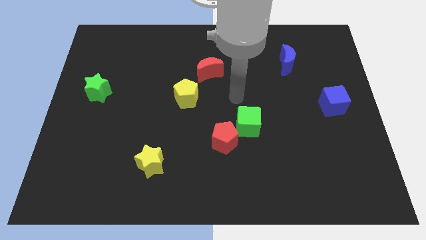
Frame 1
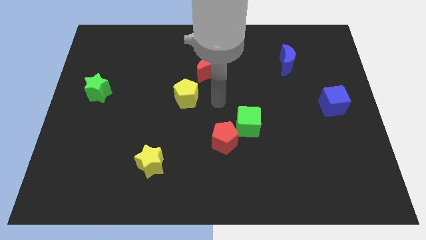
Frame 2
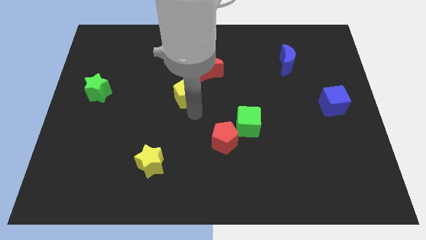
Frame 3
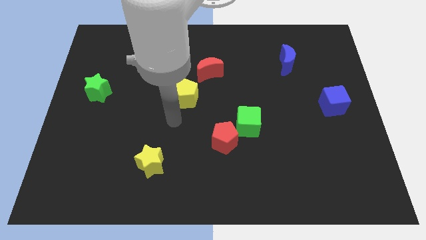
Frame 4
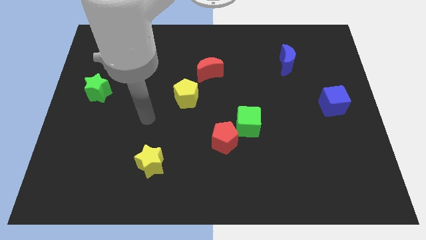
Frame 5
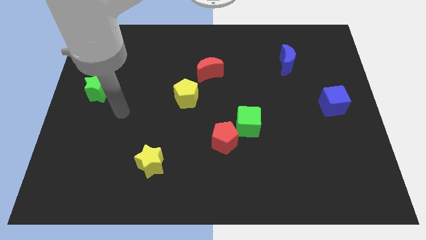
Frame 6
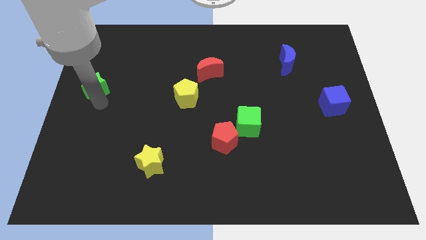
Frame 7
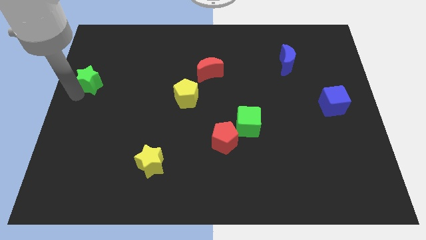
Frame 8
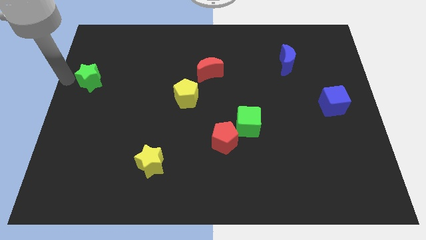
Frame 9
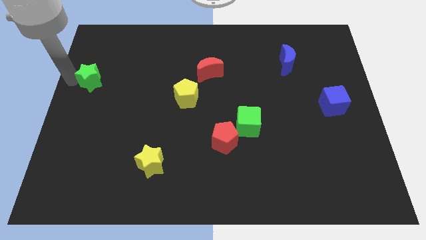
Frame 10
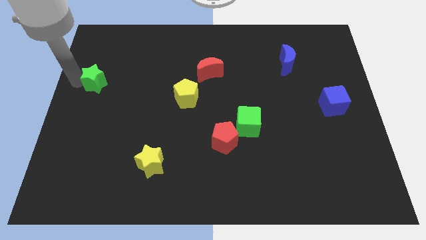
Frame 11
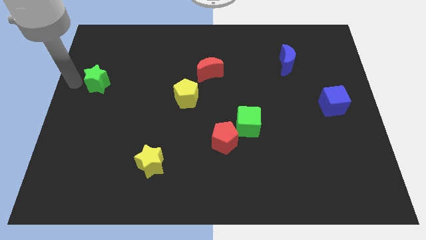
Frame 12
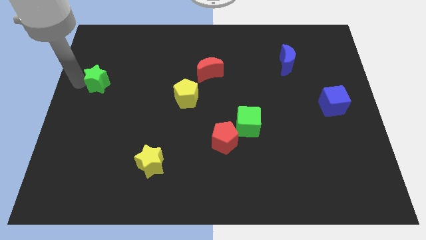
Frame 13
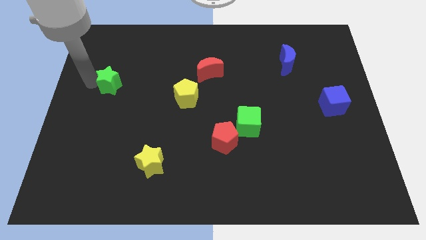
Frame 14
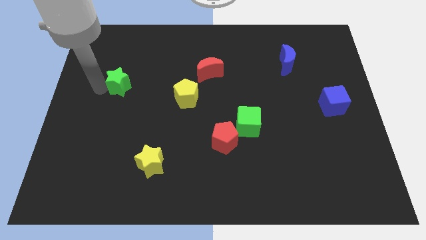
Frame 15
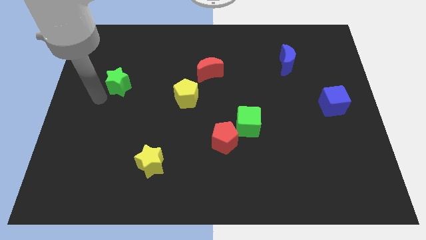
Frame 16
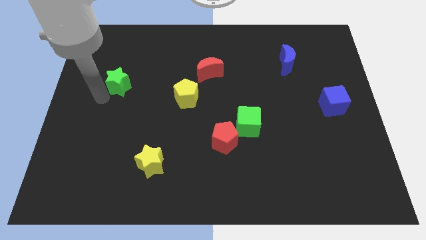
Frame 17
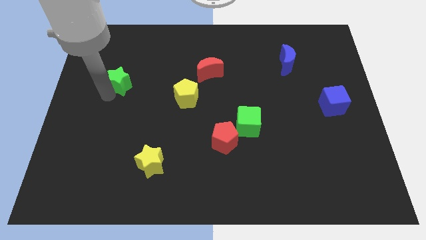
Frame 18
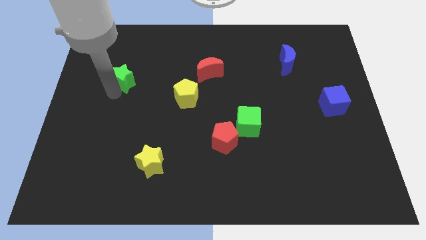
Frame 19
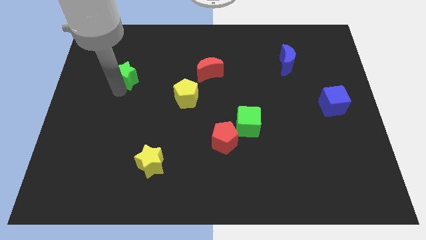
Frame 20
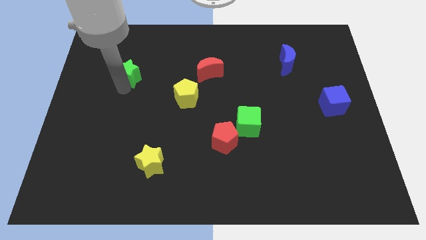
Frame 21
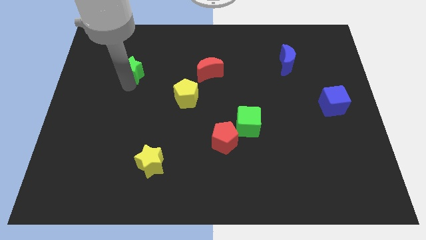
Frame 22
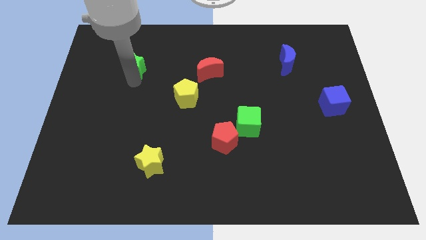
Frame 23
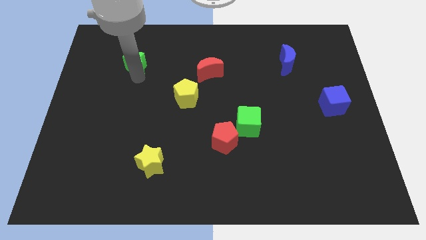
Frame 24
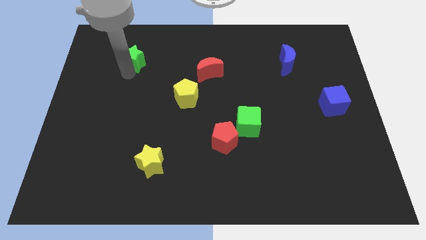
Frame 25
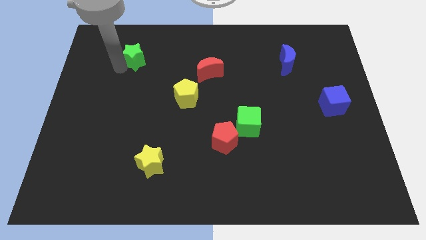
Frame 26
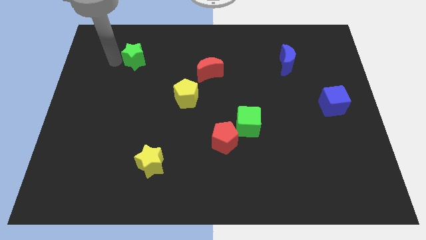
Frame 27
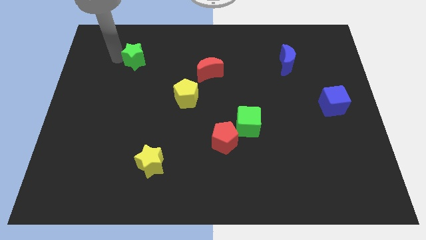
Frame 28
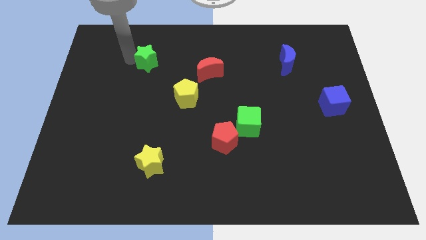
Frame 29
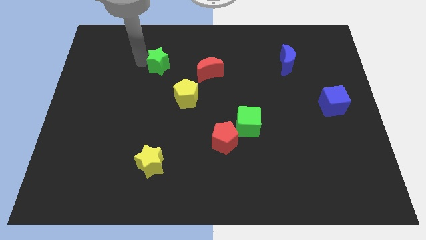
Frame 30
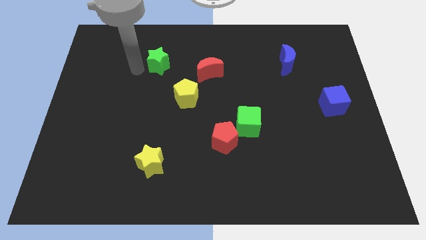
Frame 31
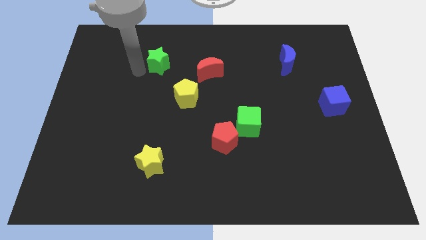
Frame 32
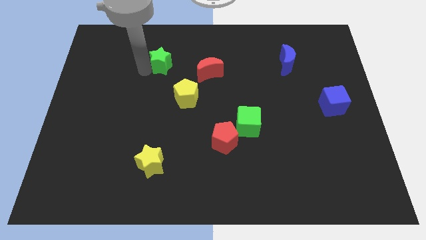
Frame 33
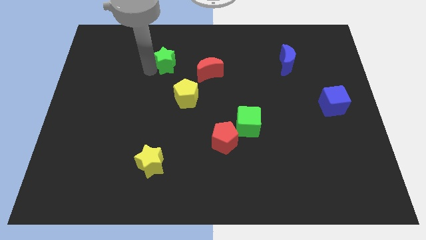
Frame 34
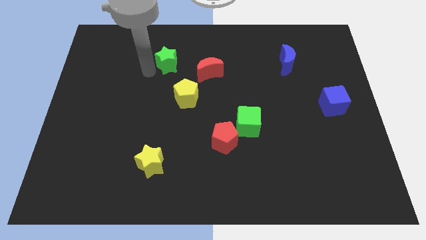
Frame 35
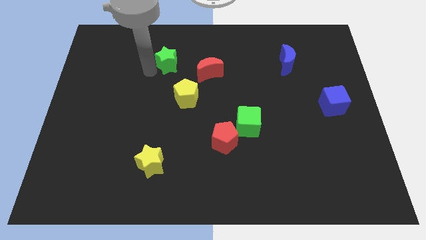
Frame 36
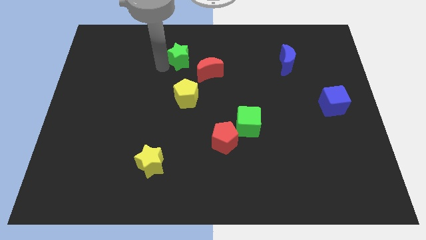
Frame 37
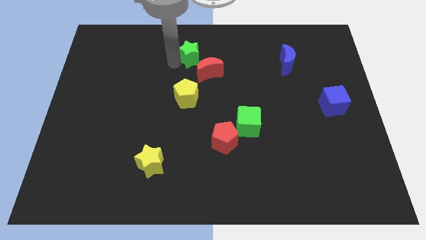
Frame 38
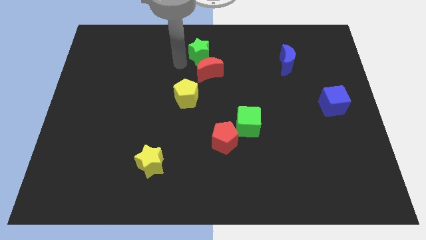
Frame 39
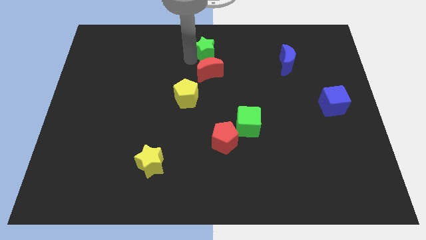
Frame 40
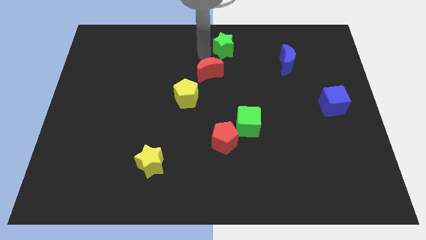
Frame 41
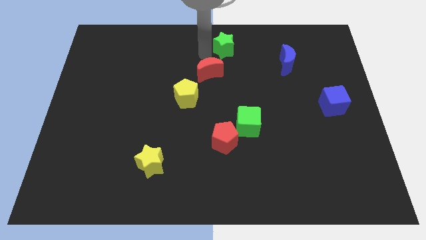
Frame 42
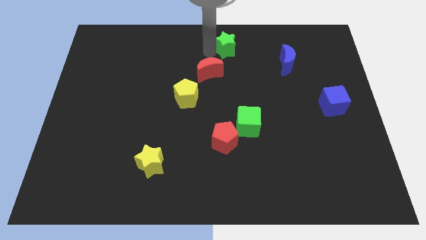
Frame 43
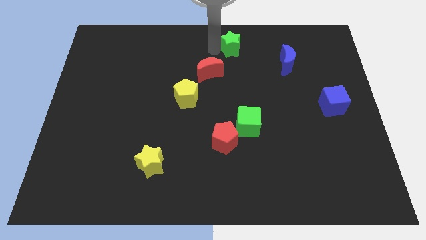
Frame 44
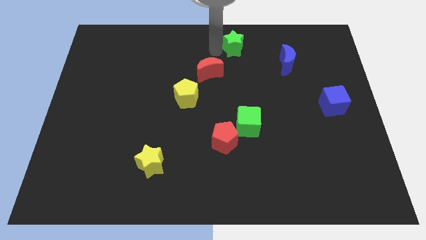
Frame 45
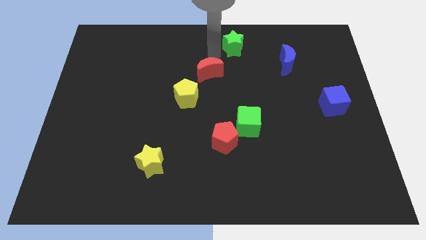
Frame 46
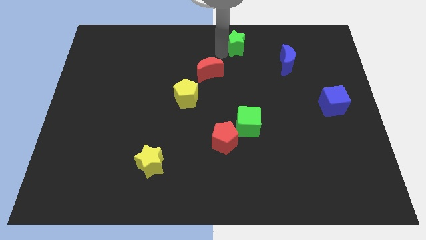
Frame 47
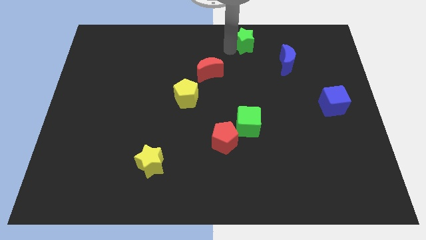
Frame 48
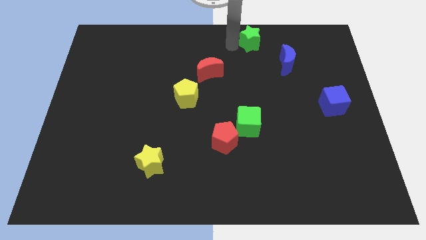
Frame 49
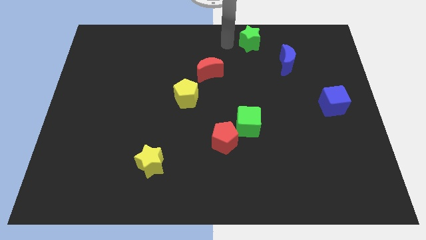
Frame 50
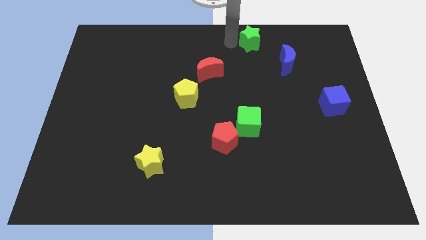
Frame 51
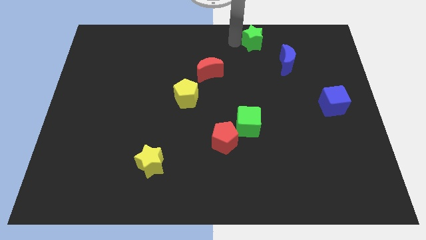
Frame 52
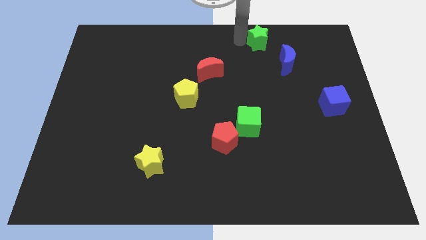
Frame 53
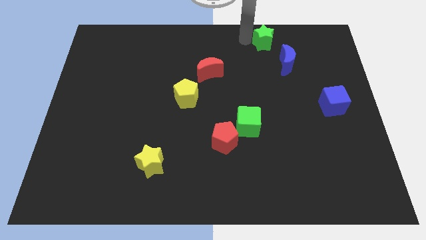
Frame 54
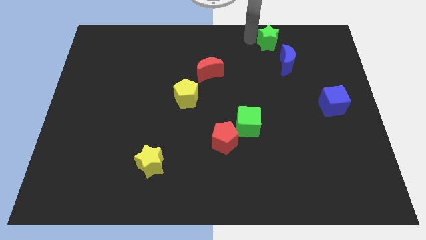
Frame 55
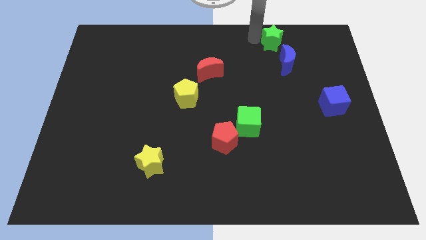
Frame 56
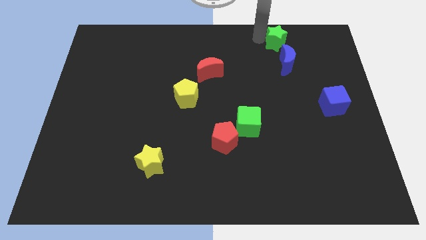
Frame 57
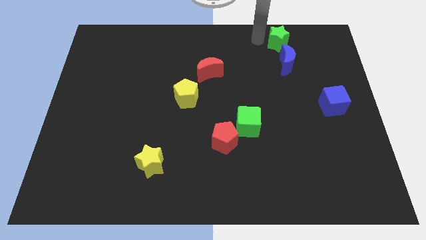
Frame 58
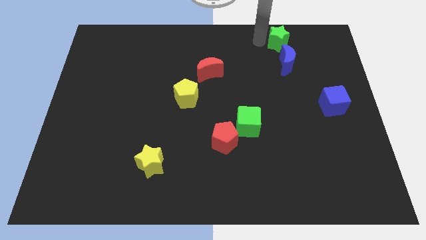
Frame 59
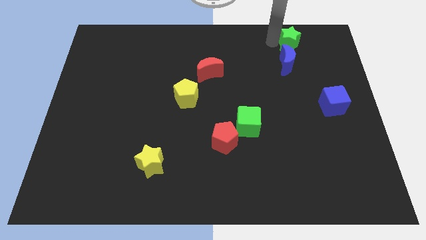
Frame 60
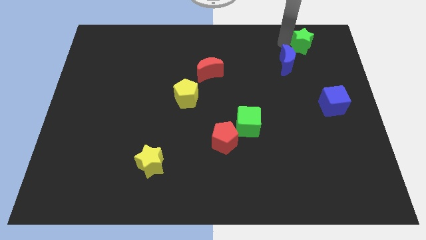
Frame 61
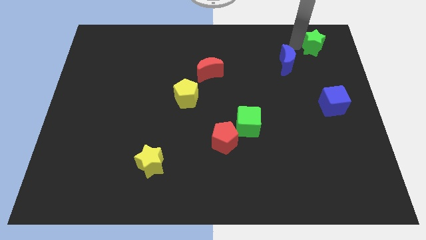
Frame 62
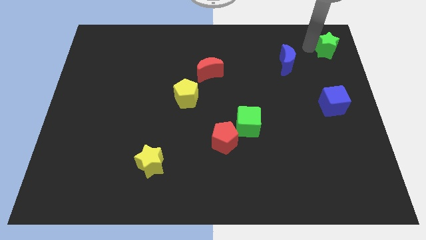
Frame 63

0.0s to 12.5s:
slide the green star to the top right of the board
